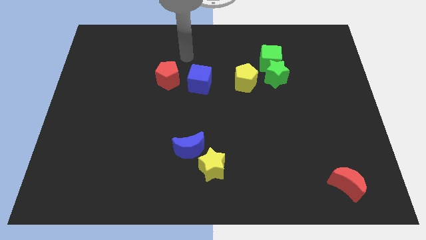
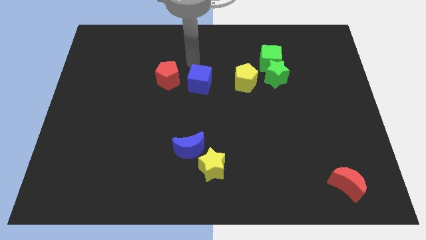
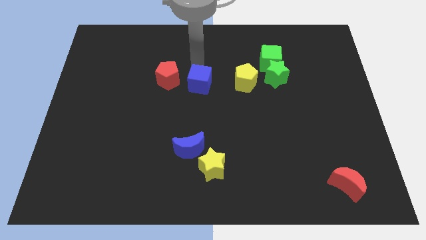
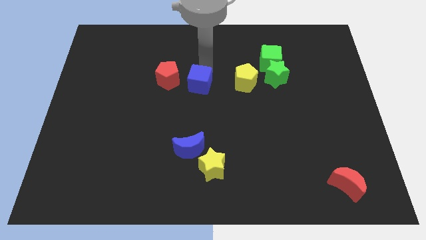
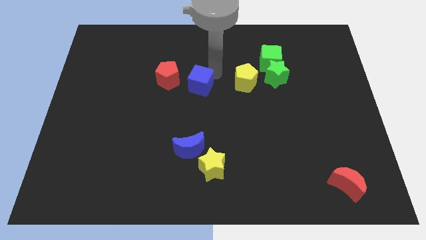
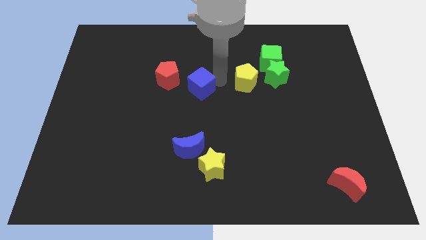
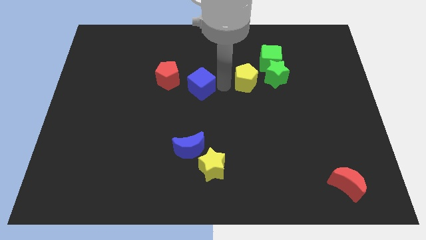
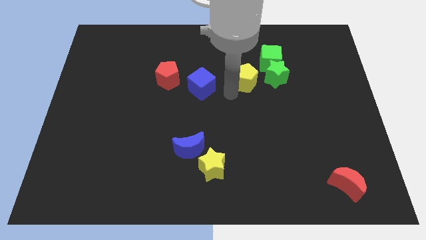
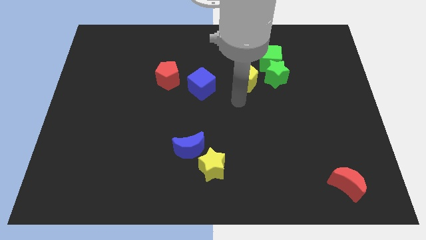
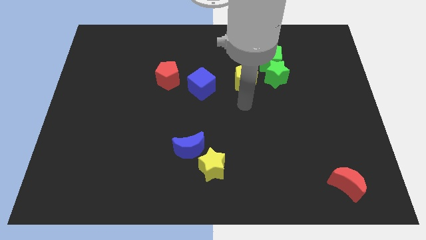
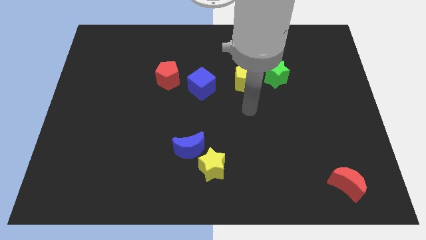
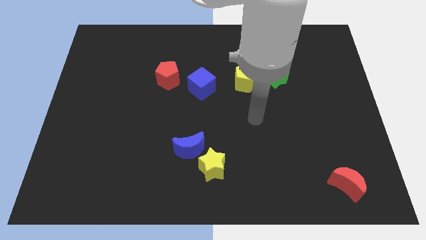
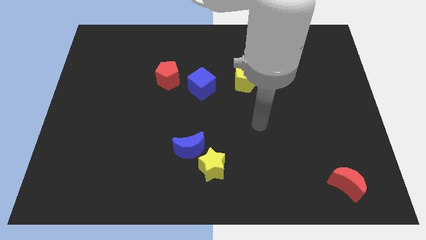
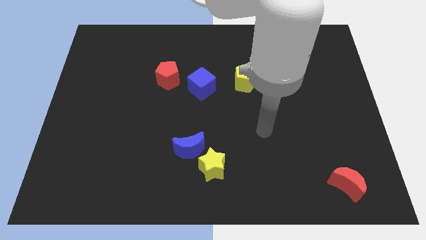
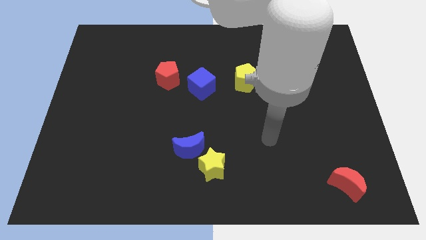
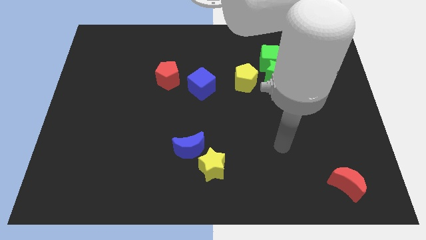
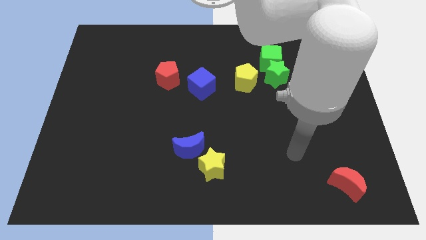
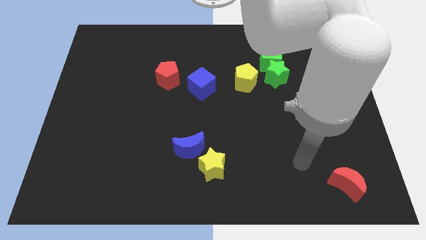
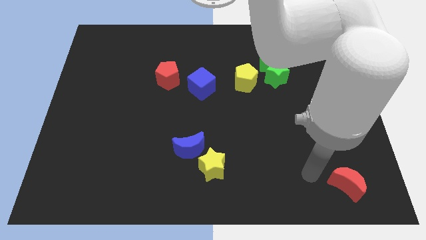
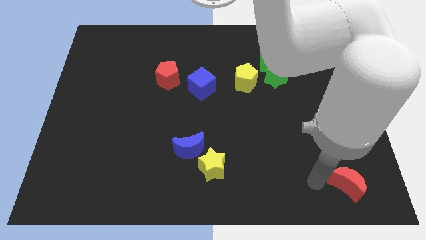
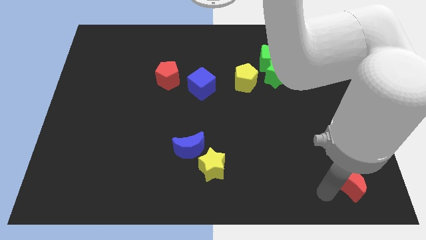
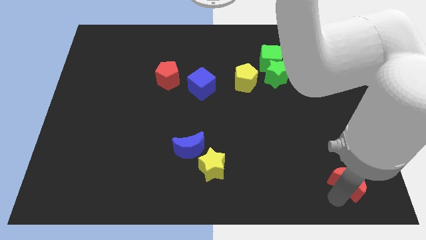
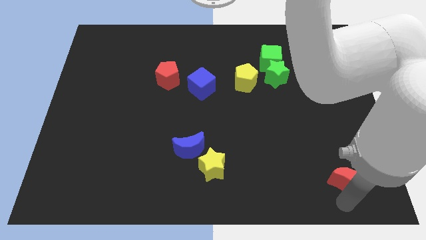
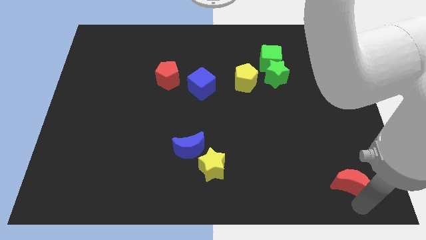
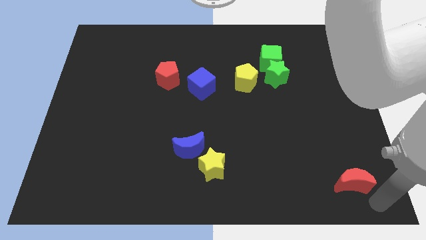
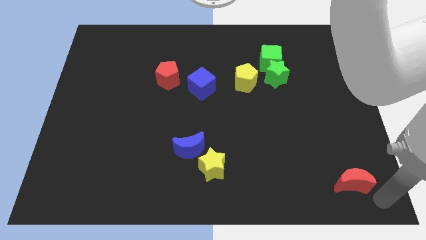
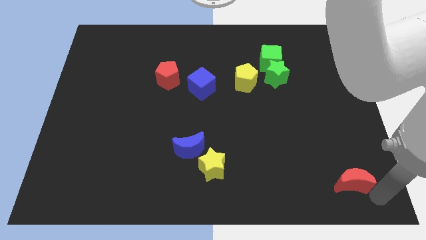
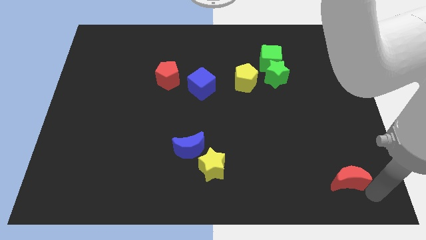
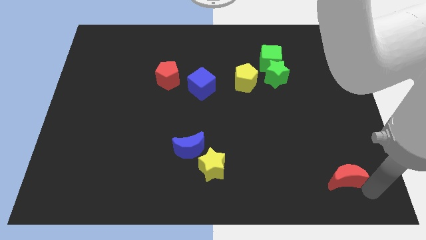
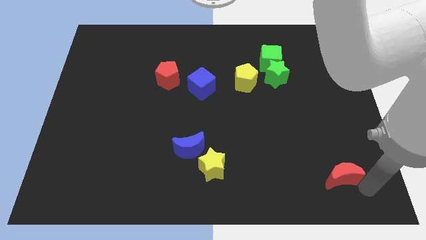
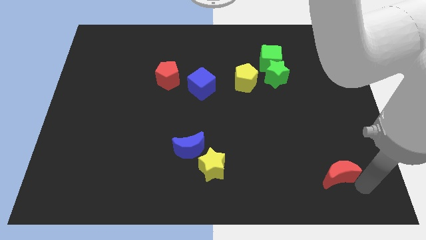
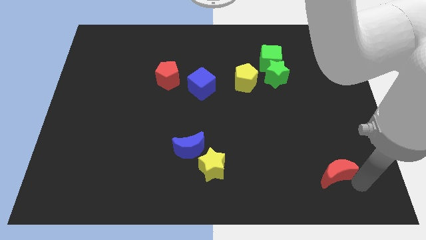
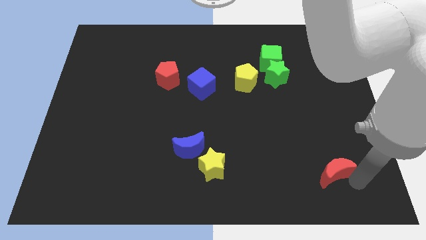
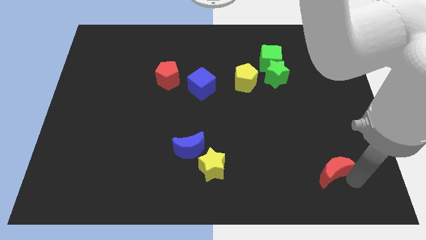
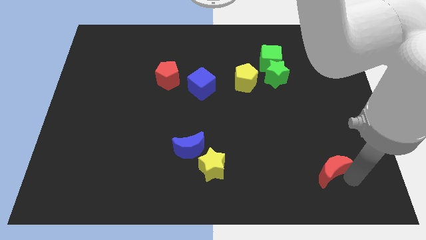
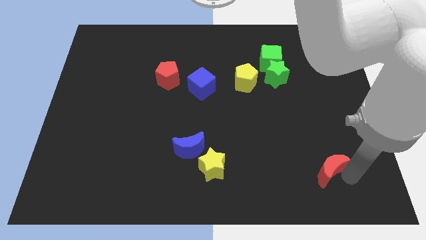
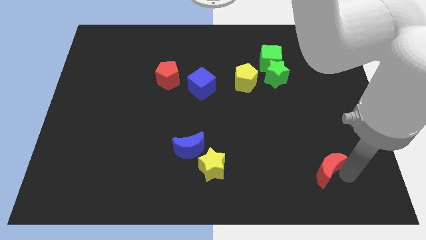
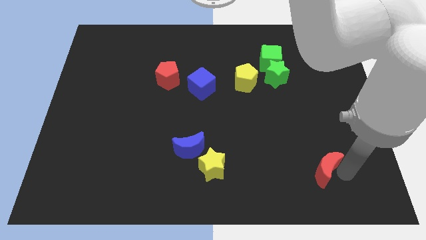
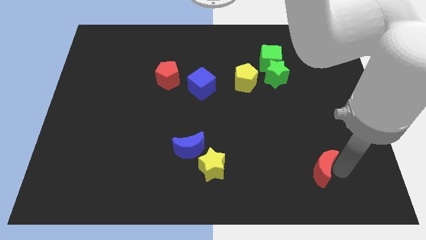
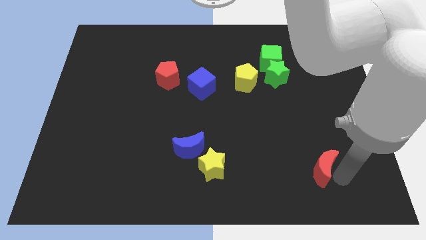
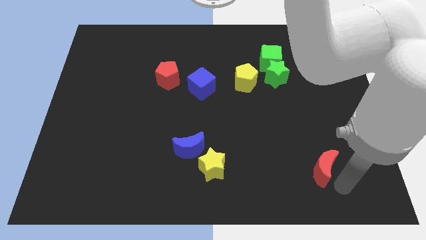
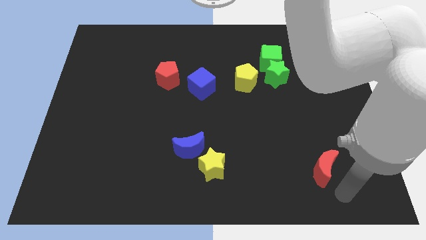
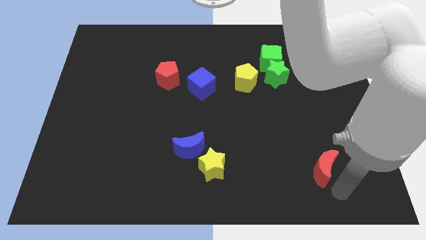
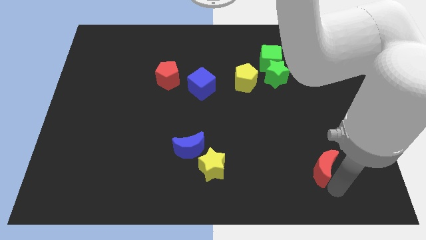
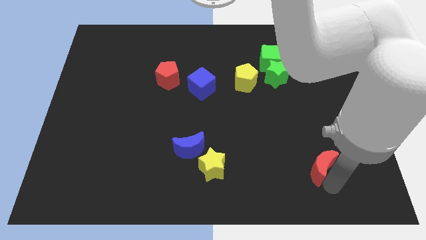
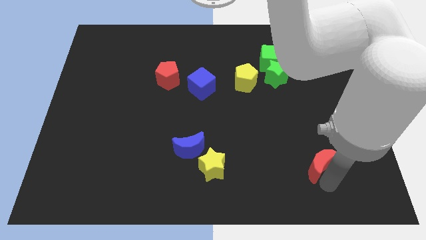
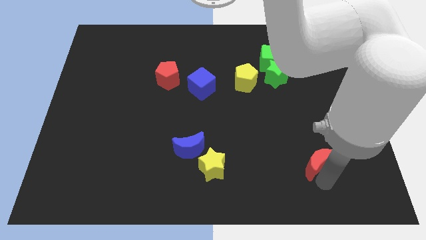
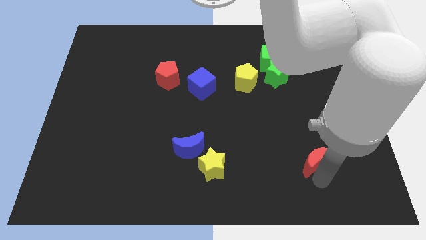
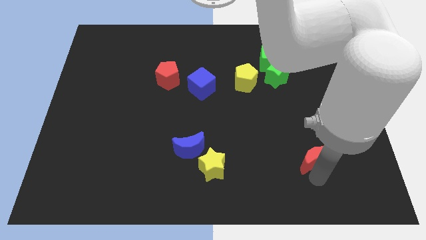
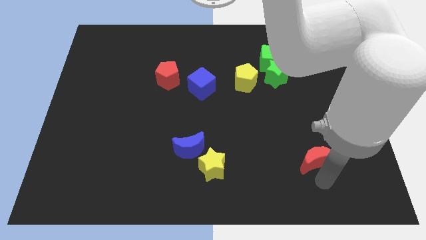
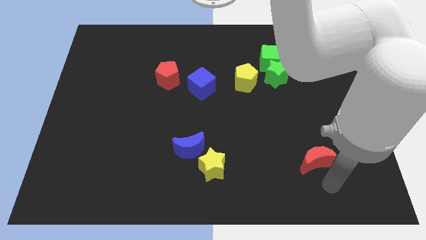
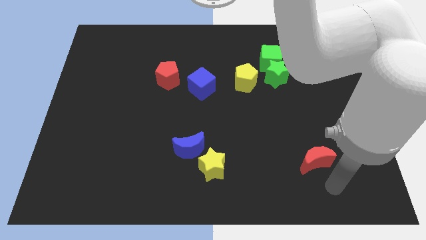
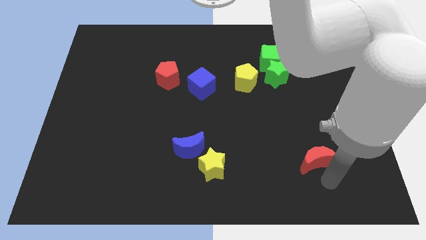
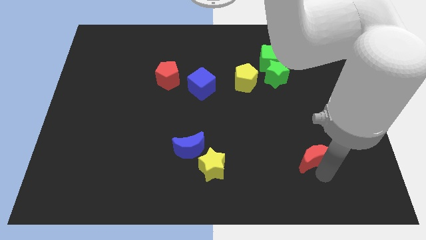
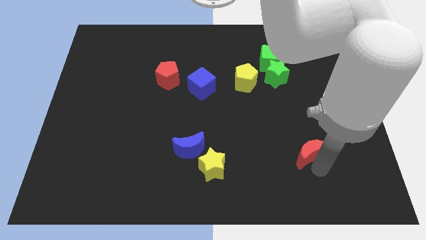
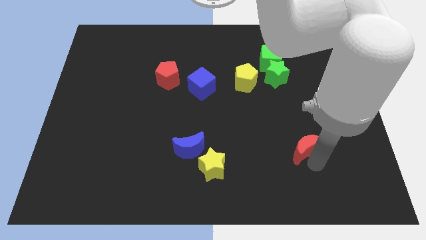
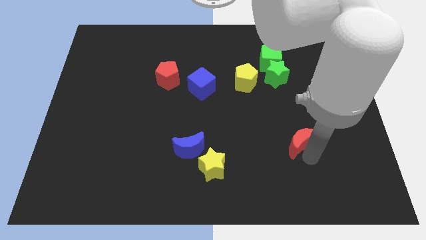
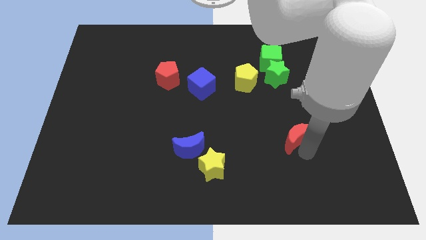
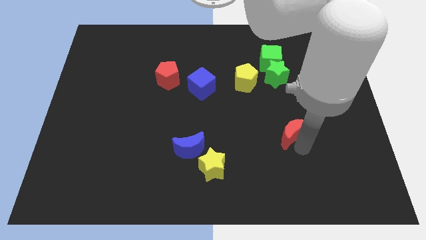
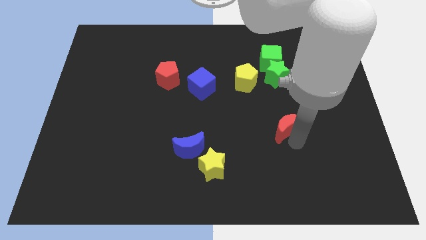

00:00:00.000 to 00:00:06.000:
push the red moon to the bottom of the green star
